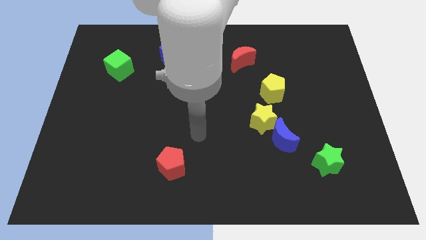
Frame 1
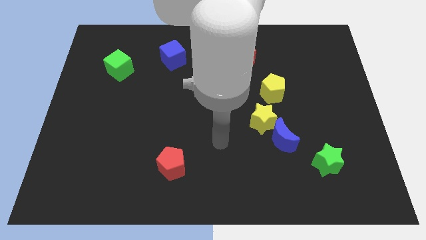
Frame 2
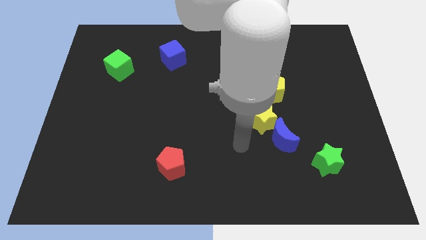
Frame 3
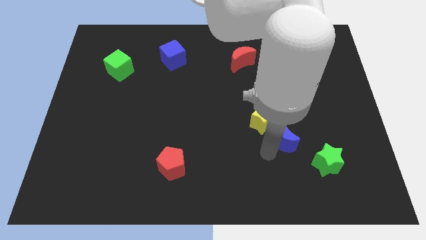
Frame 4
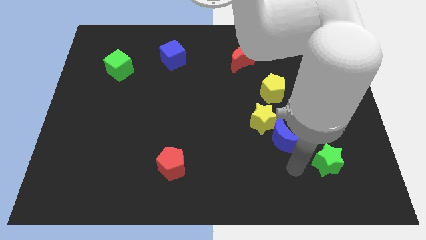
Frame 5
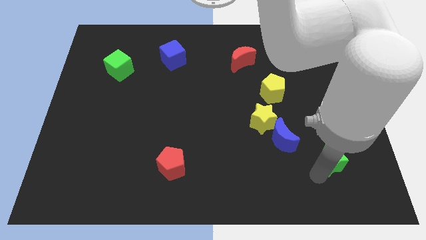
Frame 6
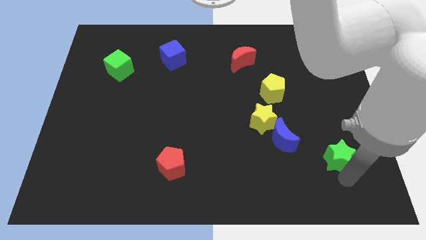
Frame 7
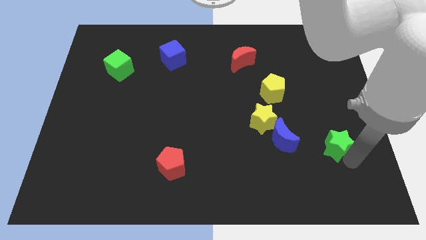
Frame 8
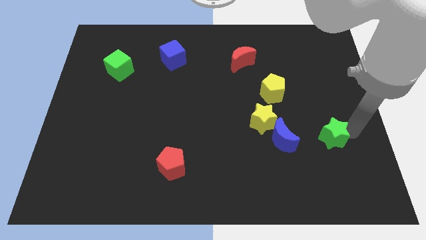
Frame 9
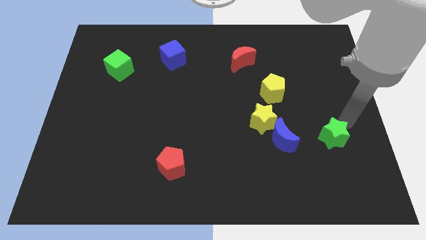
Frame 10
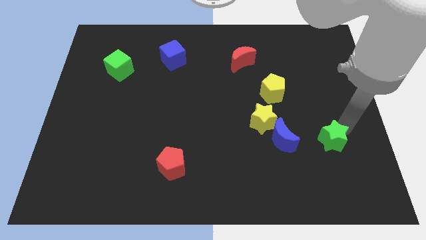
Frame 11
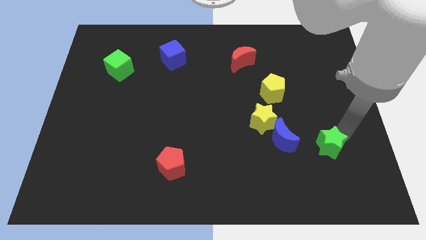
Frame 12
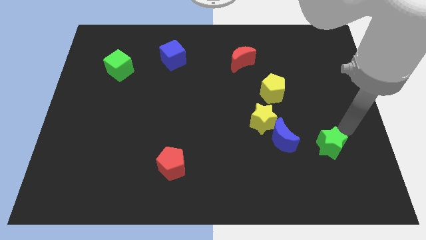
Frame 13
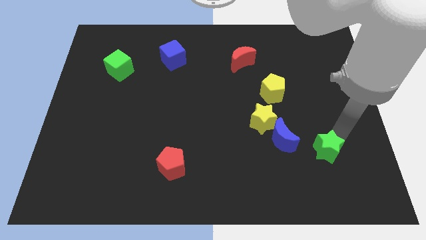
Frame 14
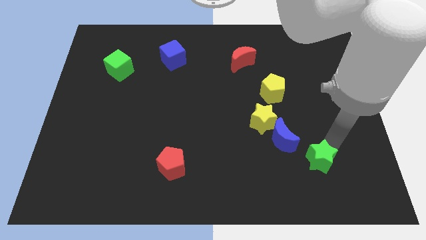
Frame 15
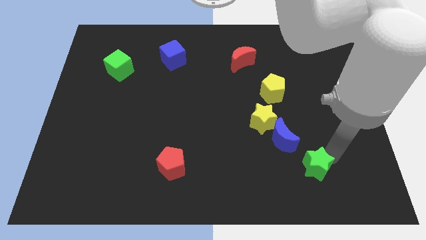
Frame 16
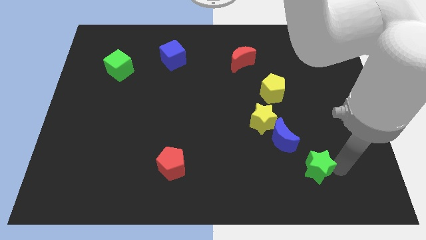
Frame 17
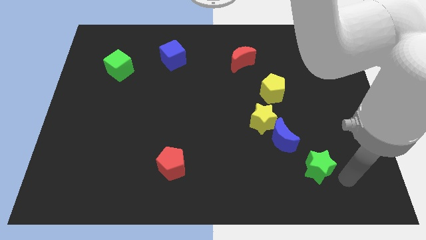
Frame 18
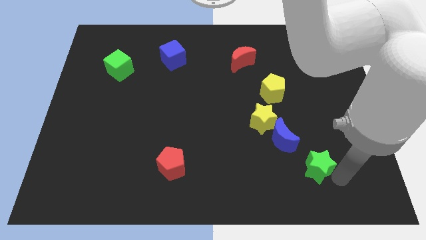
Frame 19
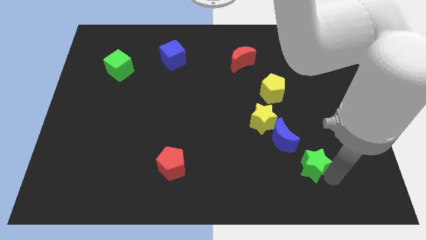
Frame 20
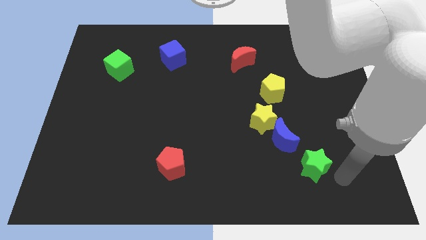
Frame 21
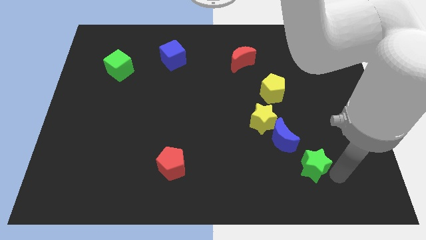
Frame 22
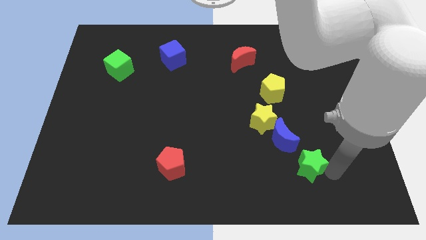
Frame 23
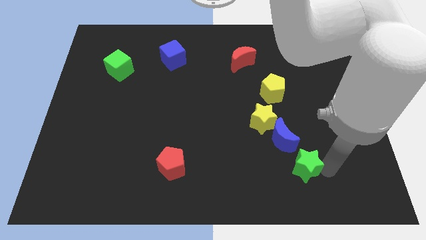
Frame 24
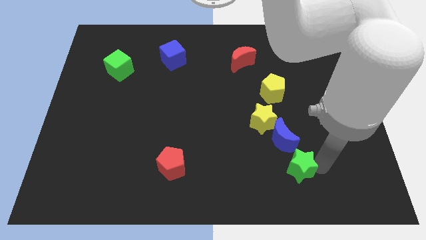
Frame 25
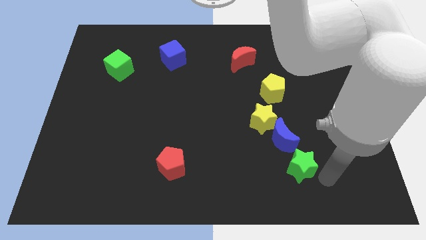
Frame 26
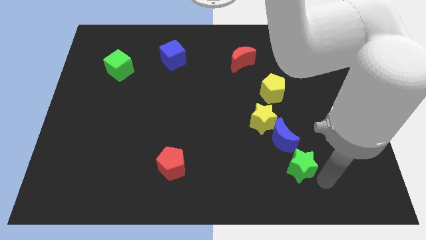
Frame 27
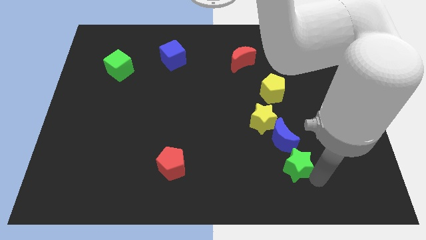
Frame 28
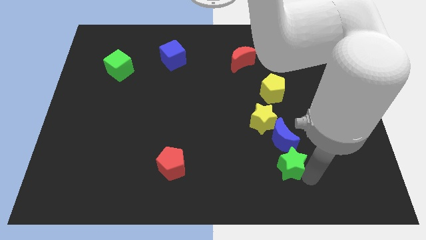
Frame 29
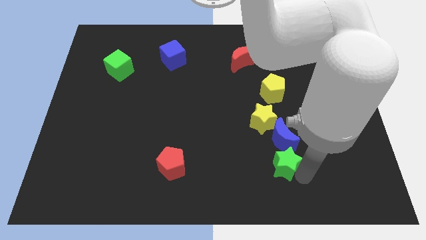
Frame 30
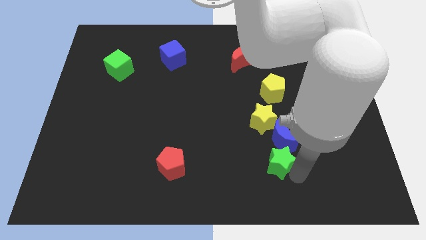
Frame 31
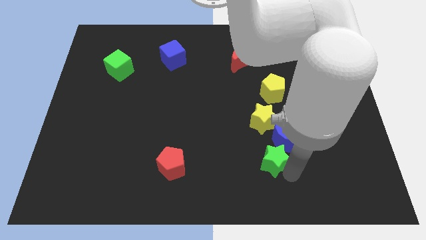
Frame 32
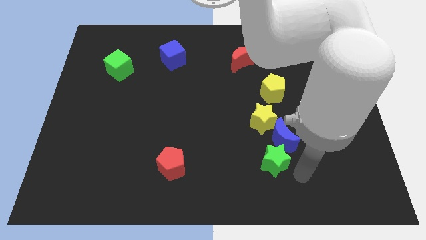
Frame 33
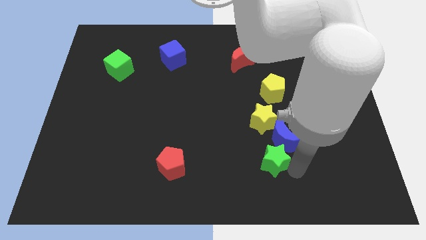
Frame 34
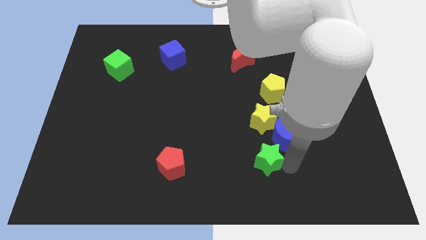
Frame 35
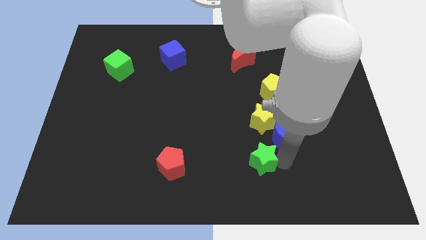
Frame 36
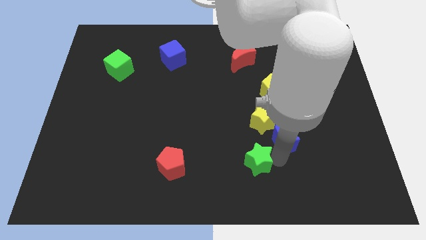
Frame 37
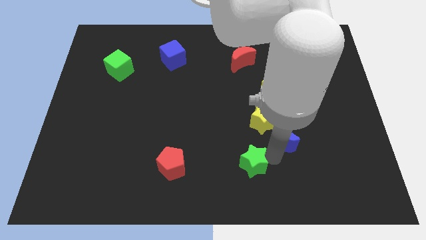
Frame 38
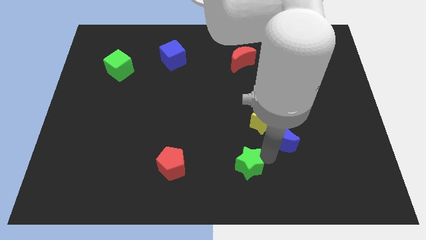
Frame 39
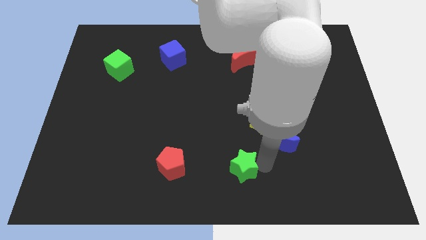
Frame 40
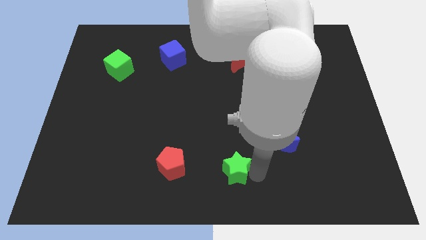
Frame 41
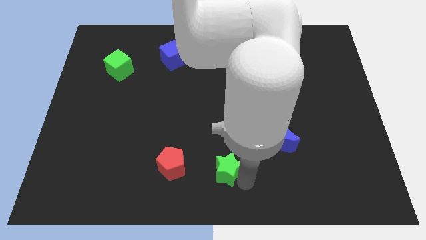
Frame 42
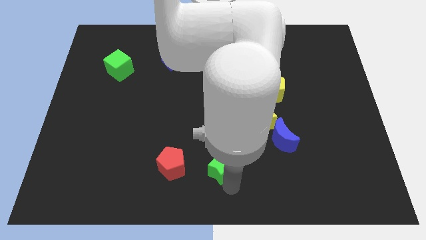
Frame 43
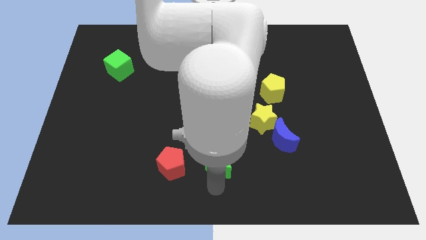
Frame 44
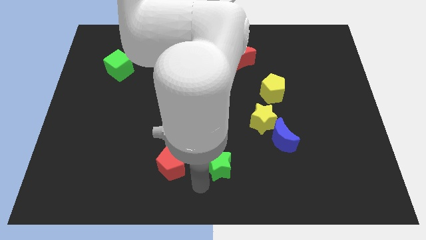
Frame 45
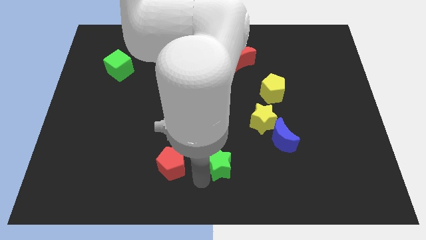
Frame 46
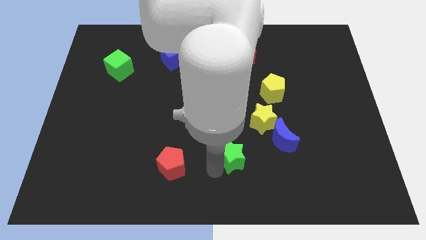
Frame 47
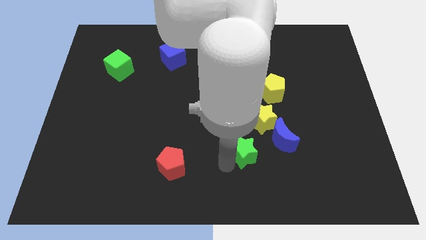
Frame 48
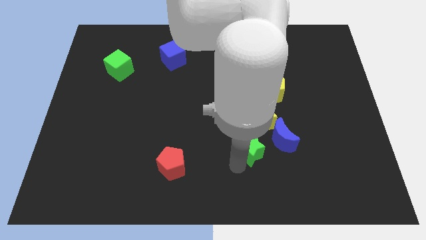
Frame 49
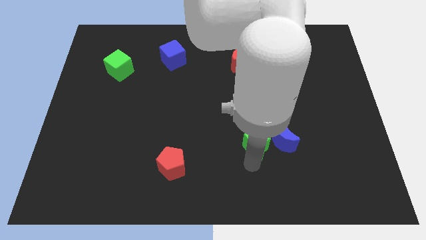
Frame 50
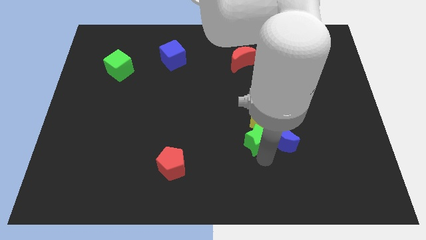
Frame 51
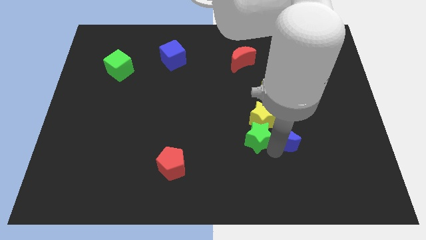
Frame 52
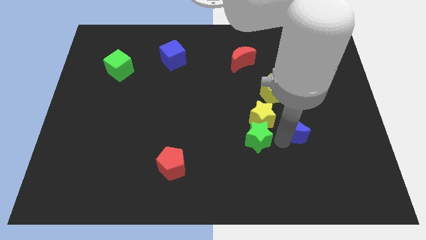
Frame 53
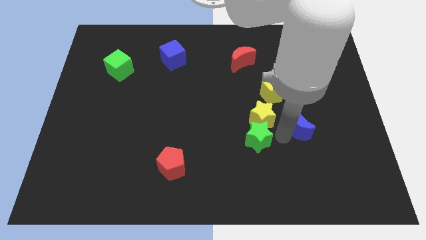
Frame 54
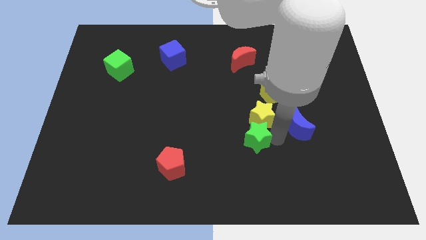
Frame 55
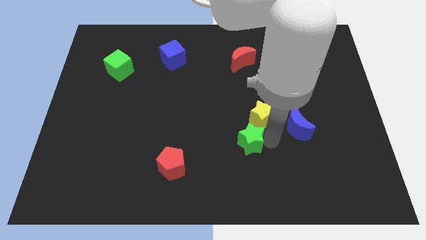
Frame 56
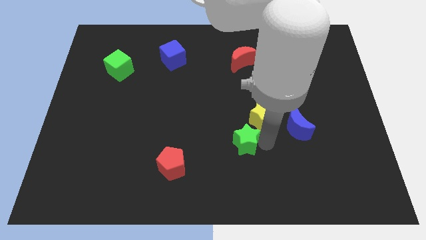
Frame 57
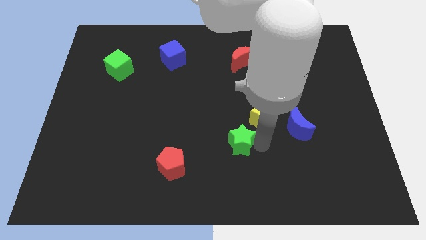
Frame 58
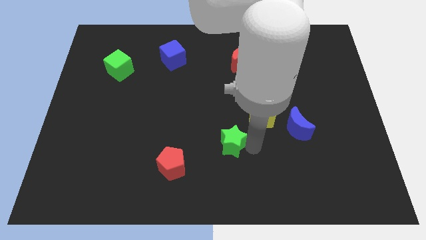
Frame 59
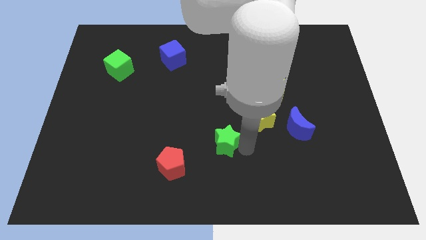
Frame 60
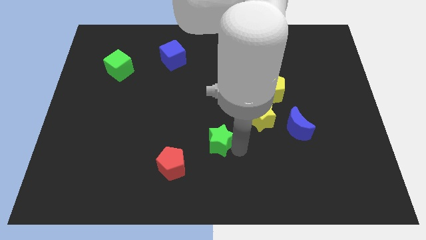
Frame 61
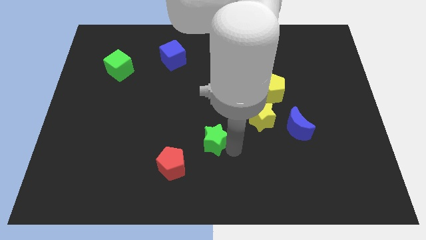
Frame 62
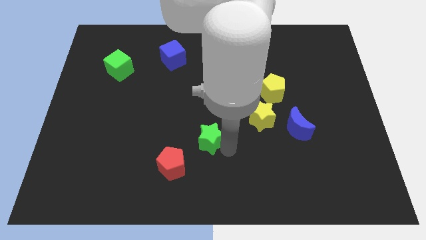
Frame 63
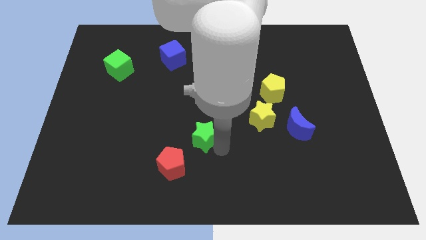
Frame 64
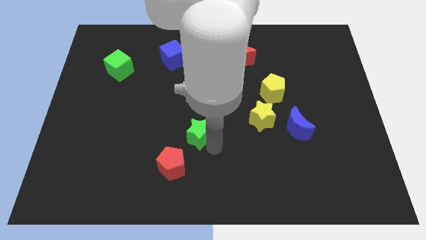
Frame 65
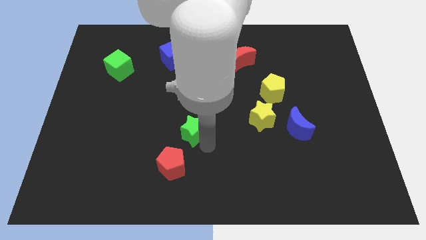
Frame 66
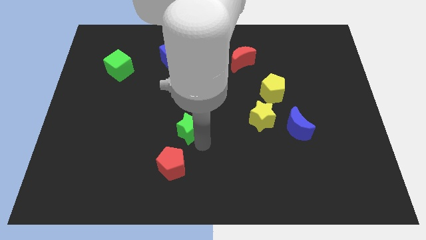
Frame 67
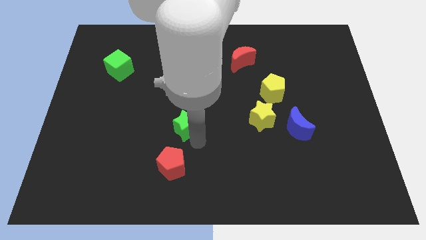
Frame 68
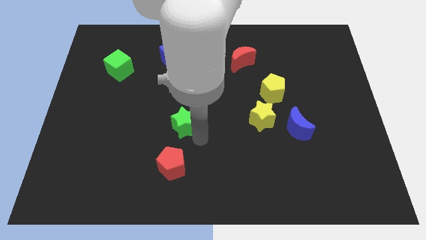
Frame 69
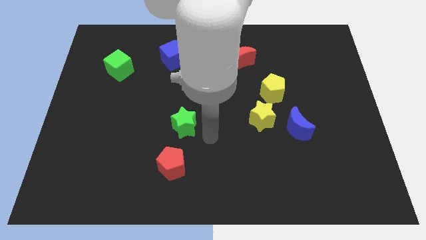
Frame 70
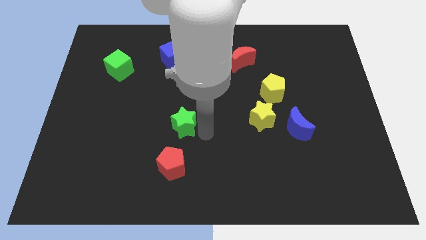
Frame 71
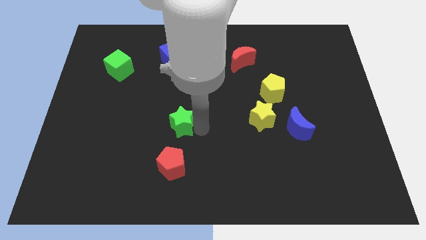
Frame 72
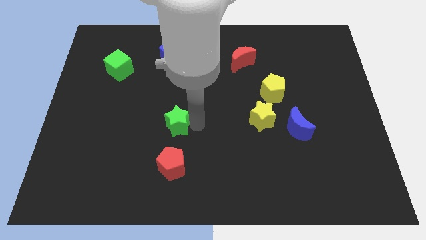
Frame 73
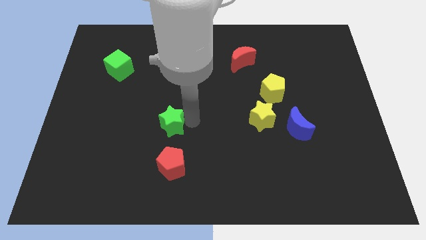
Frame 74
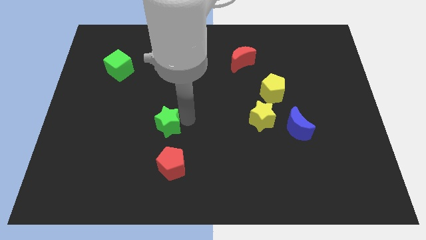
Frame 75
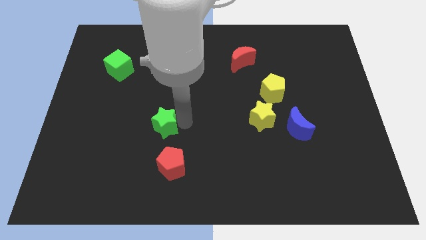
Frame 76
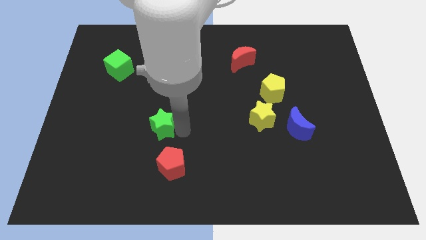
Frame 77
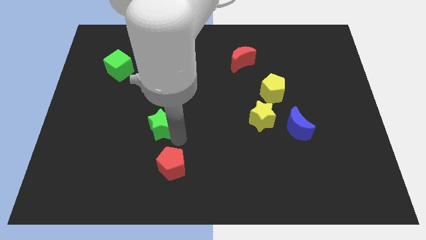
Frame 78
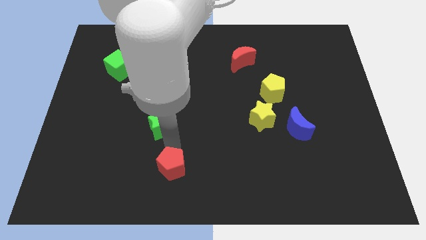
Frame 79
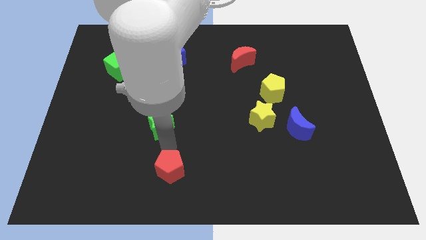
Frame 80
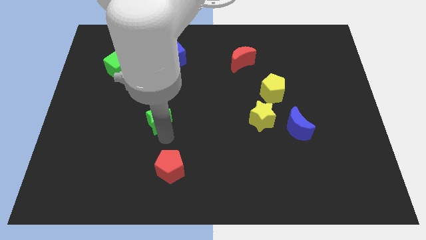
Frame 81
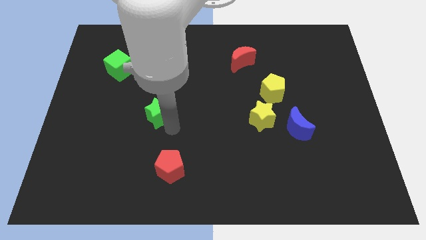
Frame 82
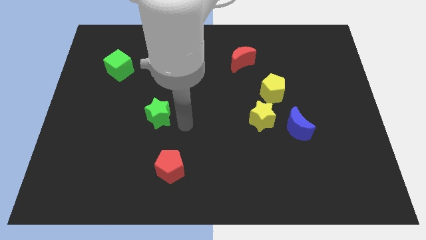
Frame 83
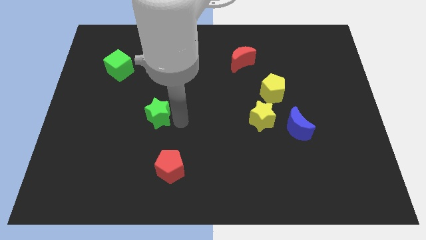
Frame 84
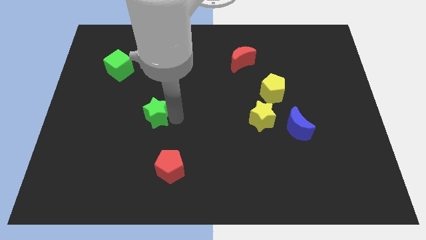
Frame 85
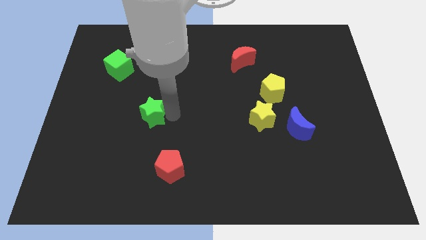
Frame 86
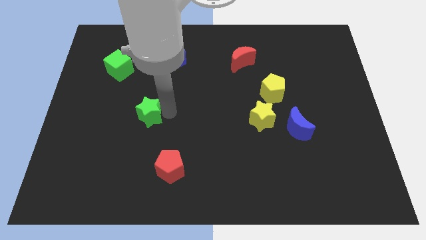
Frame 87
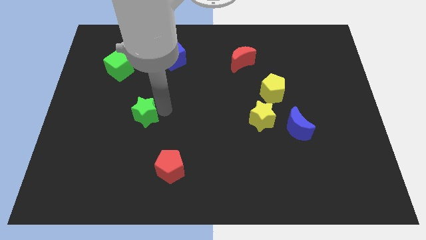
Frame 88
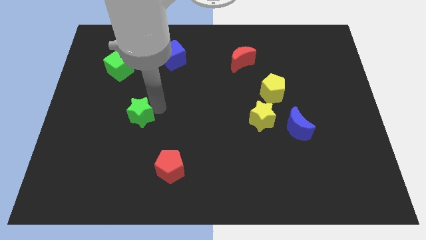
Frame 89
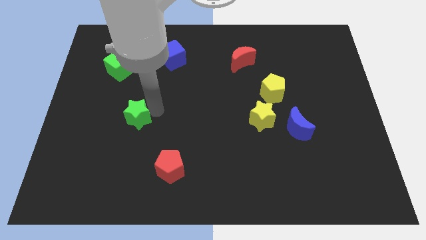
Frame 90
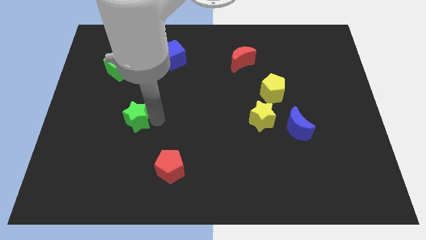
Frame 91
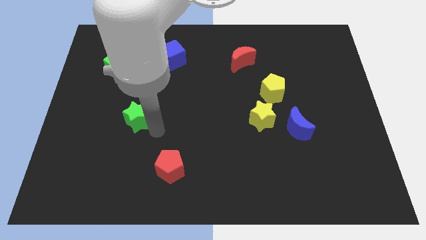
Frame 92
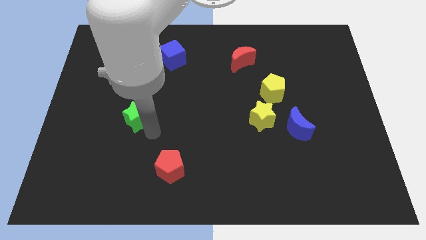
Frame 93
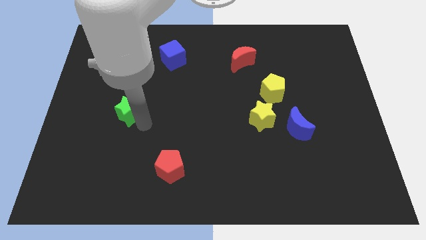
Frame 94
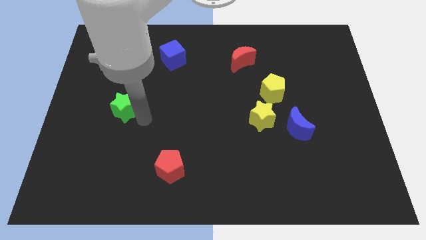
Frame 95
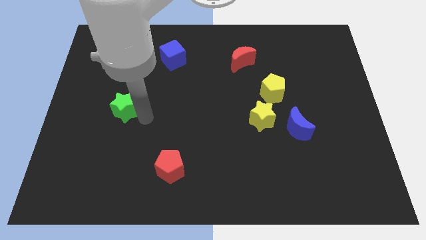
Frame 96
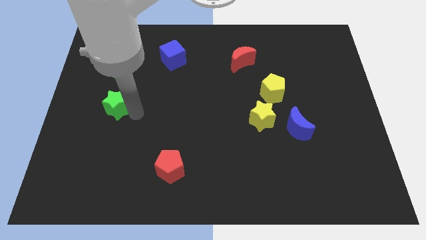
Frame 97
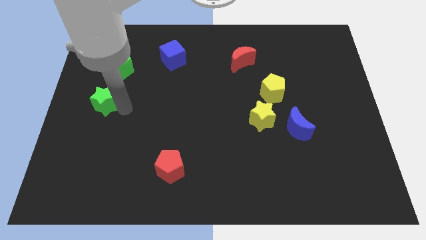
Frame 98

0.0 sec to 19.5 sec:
push the green star to the left side of the board
